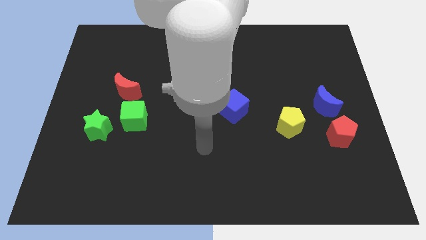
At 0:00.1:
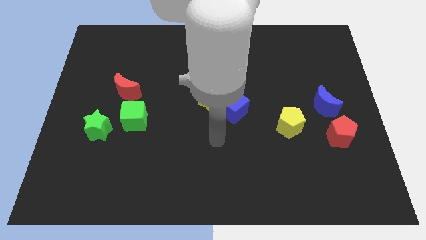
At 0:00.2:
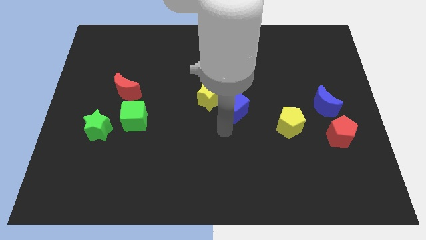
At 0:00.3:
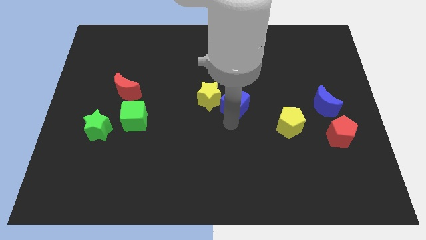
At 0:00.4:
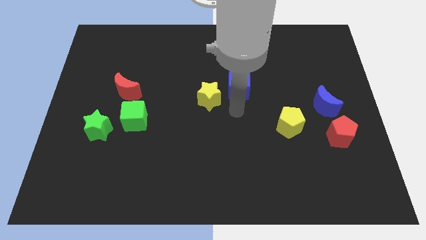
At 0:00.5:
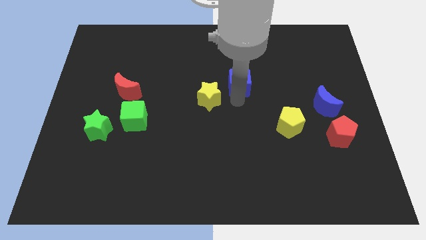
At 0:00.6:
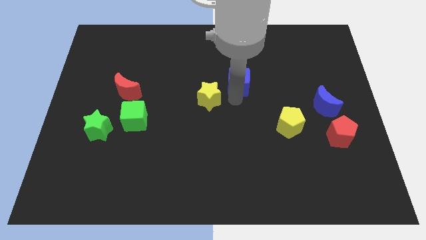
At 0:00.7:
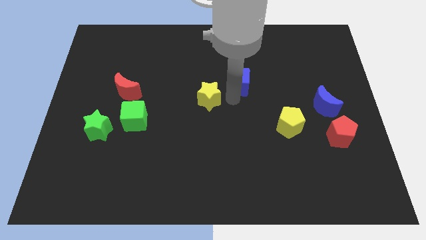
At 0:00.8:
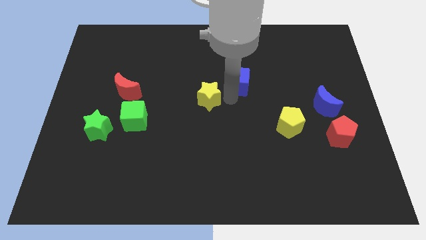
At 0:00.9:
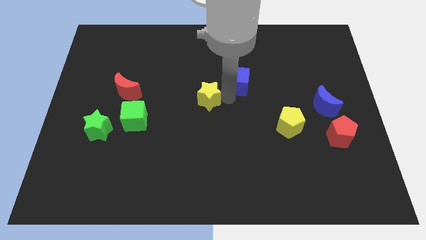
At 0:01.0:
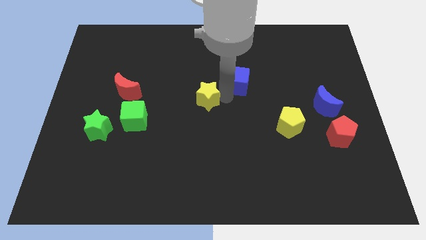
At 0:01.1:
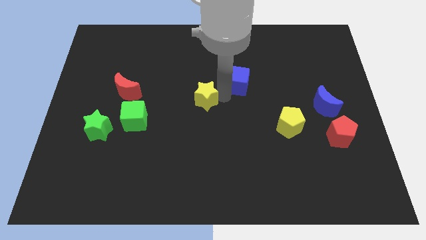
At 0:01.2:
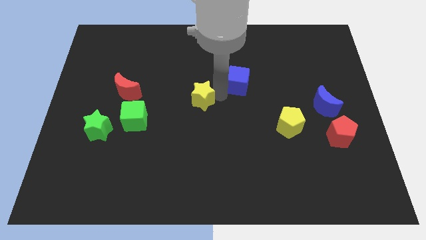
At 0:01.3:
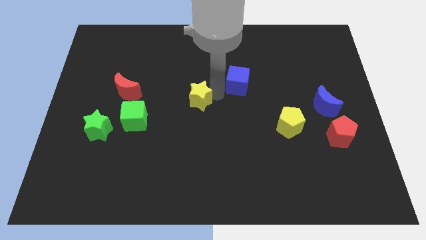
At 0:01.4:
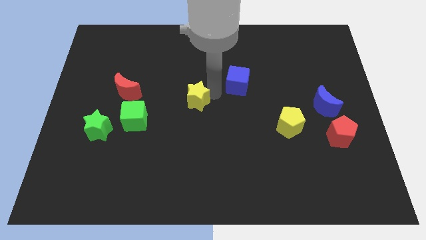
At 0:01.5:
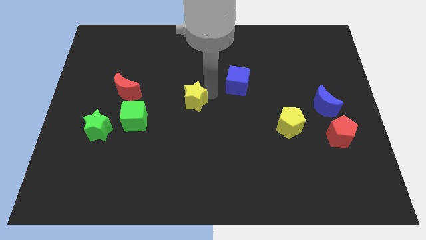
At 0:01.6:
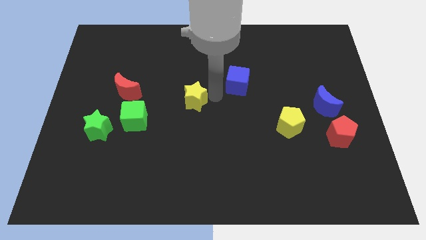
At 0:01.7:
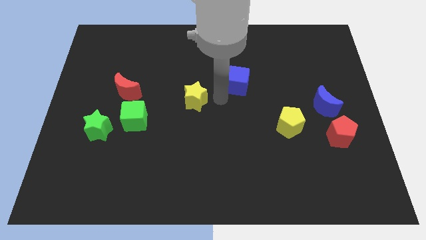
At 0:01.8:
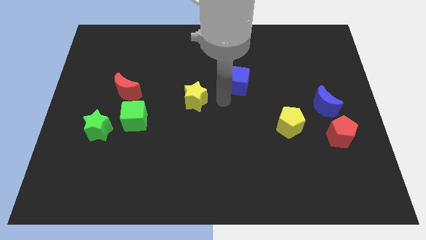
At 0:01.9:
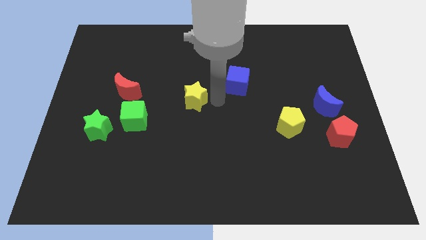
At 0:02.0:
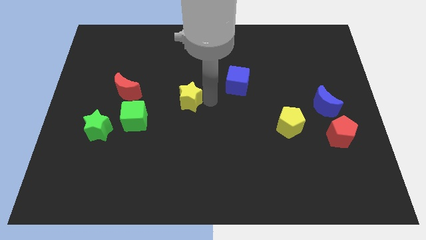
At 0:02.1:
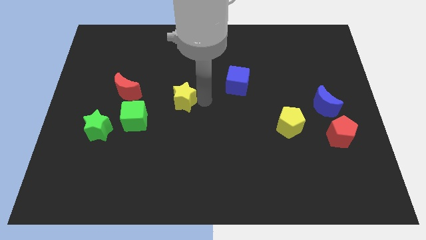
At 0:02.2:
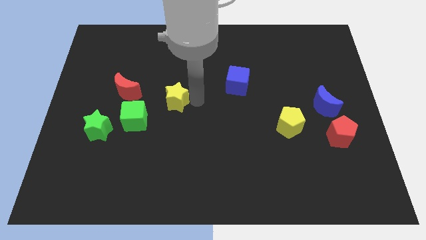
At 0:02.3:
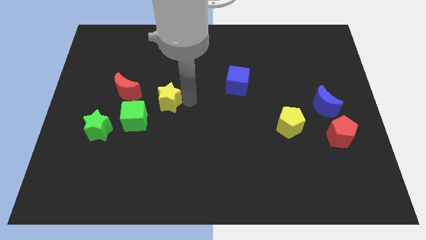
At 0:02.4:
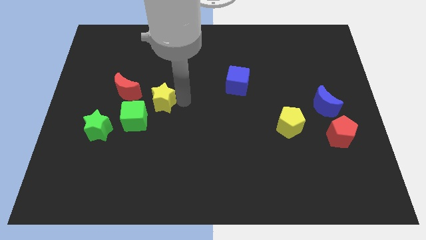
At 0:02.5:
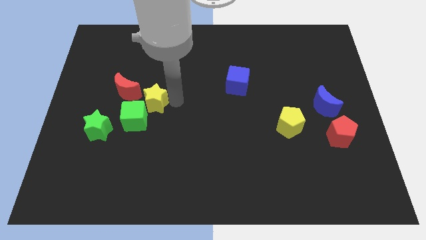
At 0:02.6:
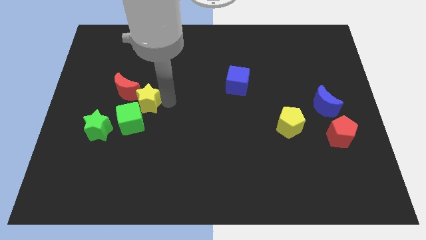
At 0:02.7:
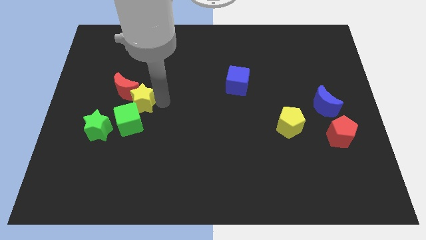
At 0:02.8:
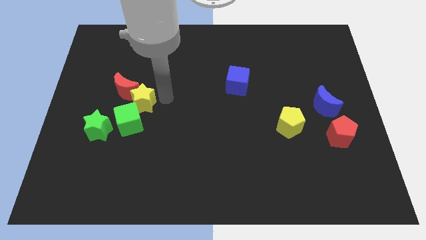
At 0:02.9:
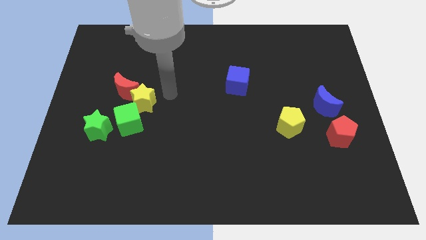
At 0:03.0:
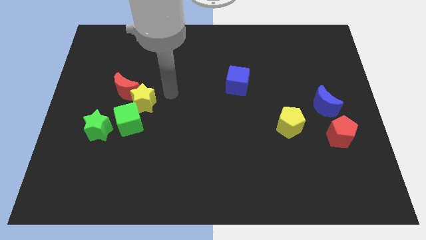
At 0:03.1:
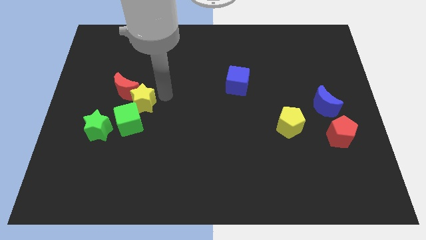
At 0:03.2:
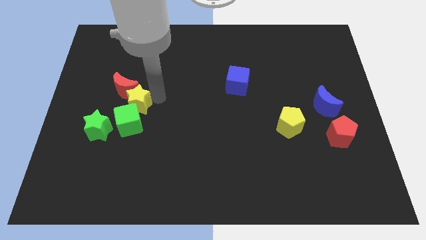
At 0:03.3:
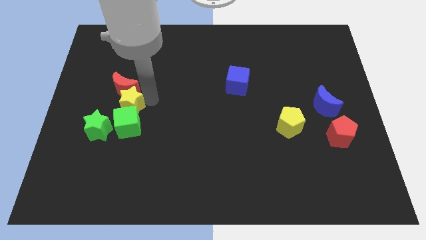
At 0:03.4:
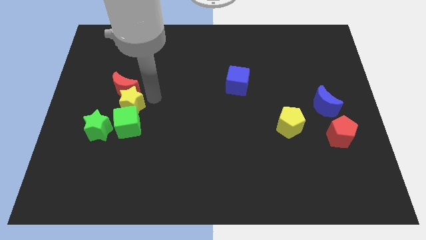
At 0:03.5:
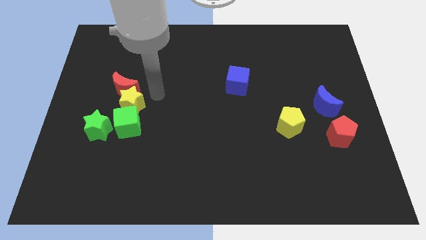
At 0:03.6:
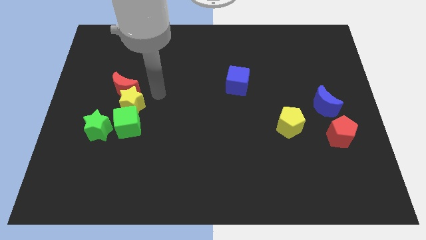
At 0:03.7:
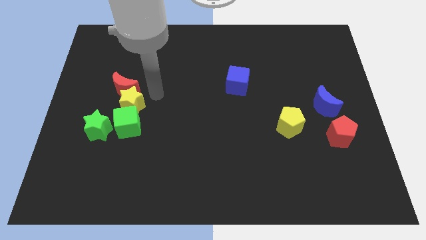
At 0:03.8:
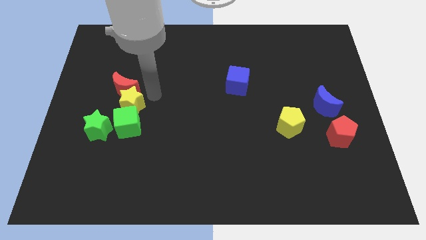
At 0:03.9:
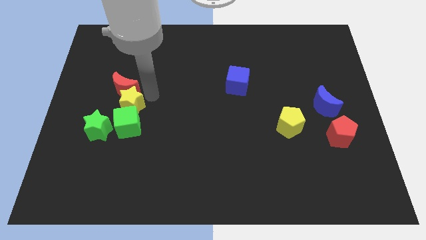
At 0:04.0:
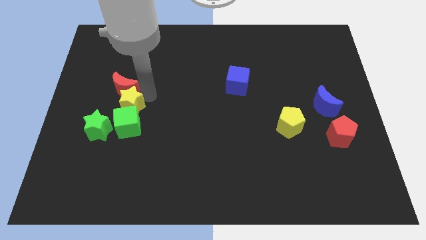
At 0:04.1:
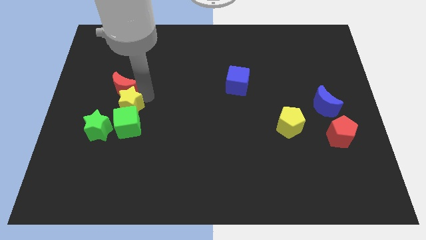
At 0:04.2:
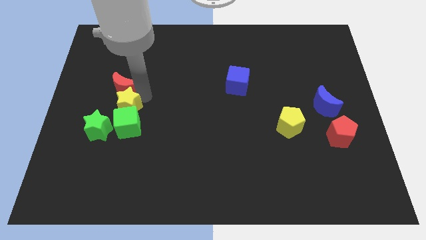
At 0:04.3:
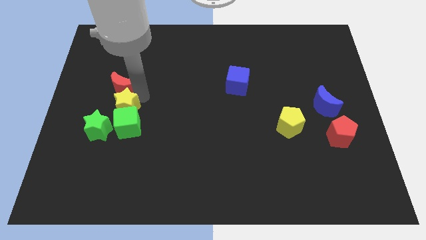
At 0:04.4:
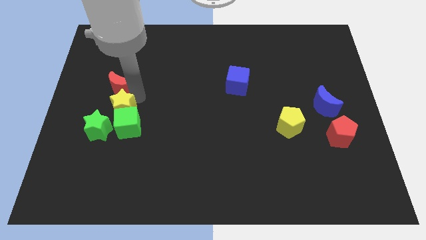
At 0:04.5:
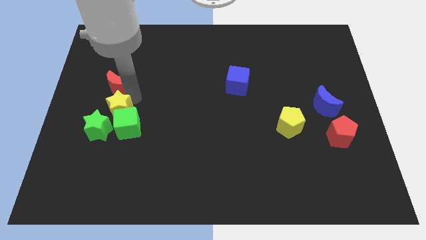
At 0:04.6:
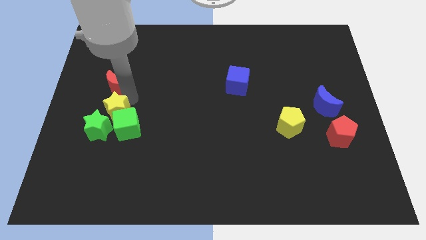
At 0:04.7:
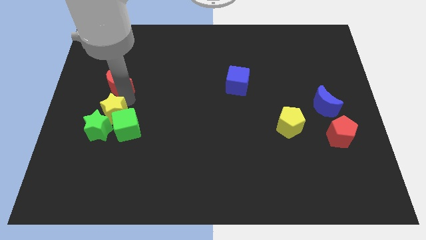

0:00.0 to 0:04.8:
push the yellow star to the green star

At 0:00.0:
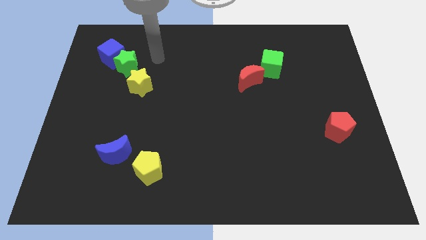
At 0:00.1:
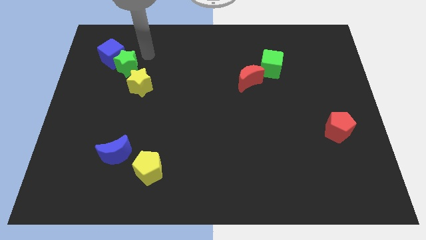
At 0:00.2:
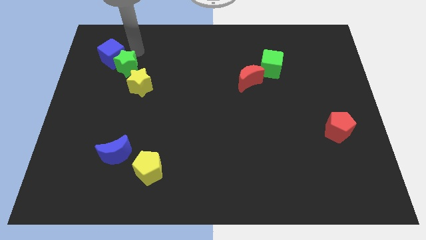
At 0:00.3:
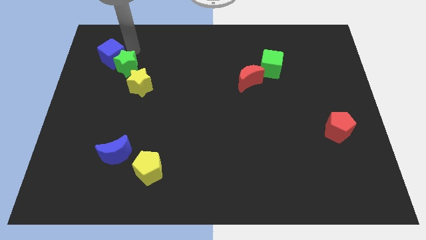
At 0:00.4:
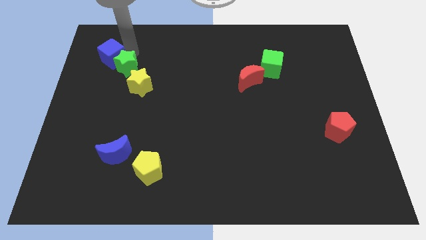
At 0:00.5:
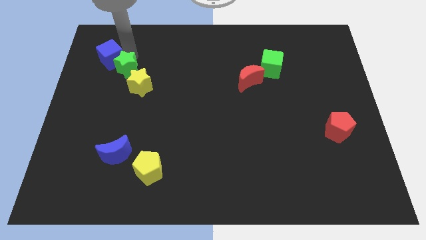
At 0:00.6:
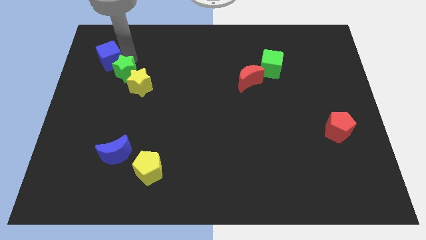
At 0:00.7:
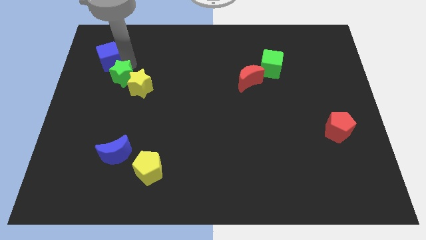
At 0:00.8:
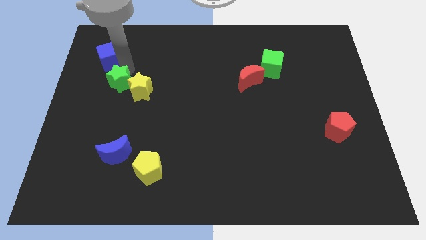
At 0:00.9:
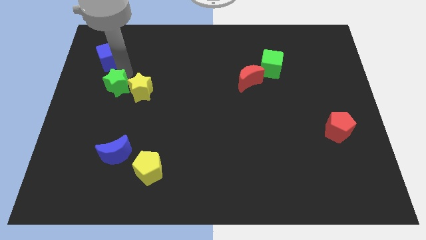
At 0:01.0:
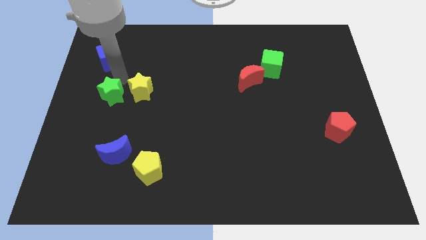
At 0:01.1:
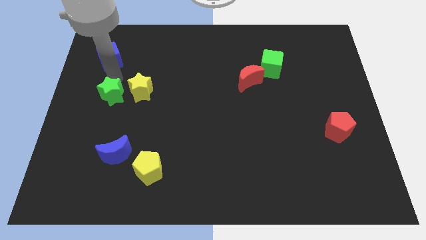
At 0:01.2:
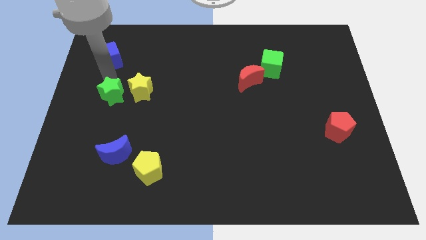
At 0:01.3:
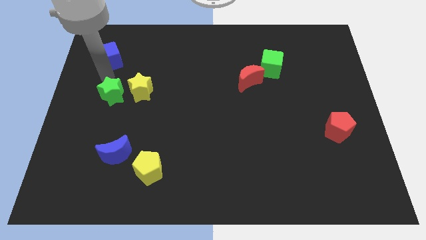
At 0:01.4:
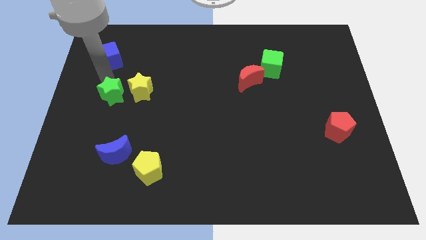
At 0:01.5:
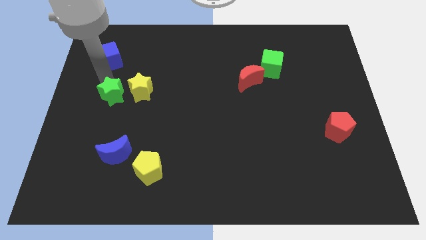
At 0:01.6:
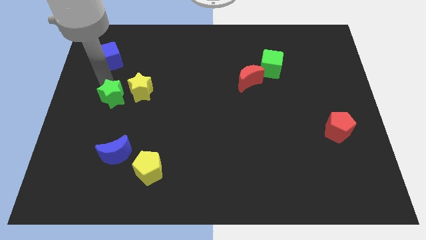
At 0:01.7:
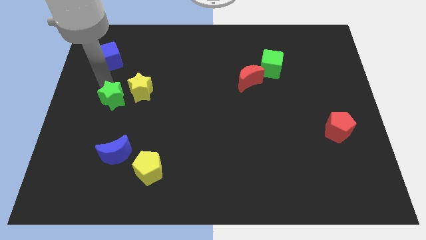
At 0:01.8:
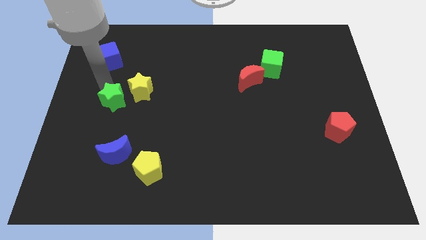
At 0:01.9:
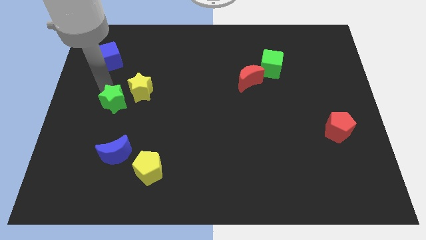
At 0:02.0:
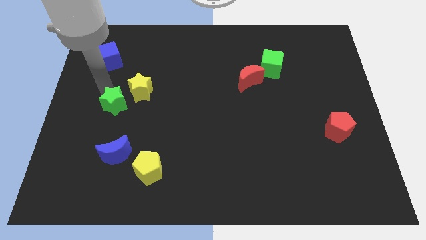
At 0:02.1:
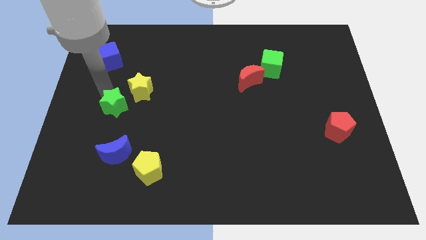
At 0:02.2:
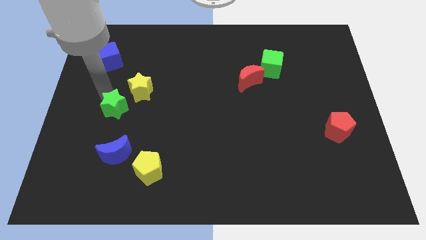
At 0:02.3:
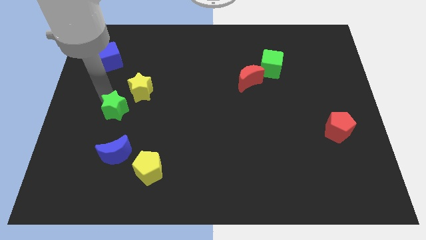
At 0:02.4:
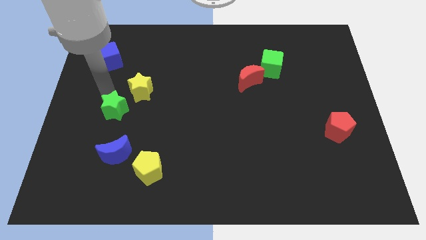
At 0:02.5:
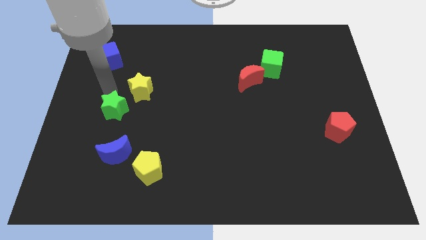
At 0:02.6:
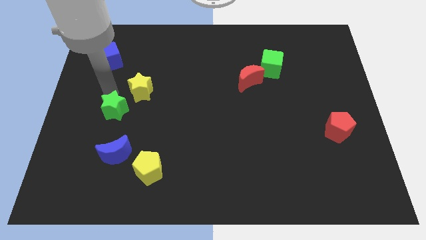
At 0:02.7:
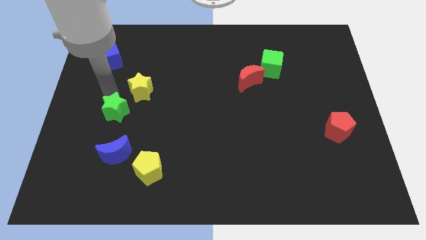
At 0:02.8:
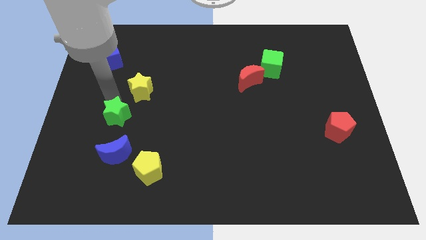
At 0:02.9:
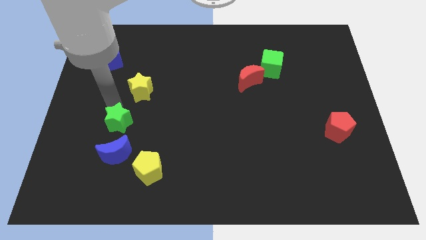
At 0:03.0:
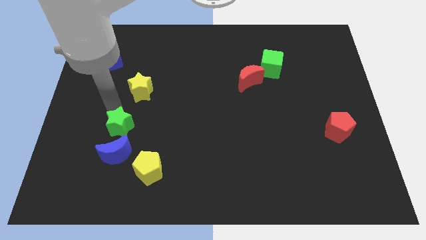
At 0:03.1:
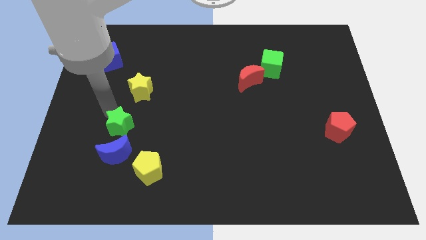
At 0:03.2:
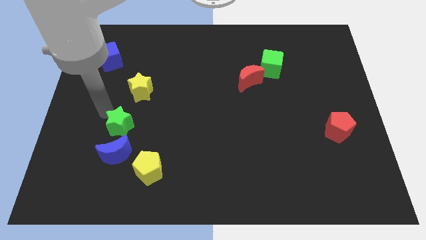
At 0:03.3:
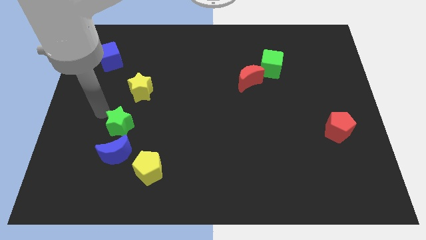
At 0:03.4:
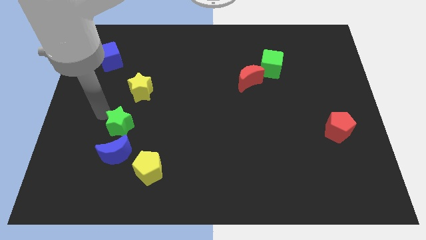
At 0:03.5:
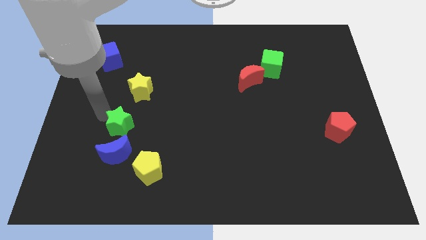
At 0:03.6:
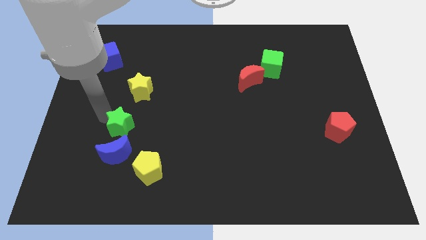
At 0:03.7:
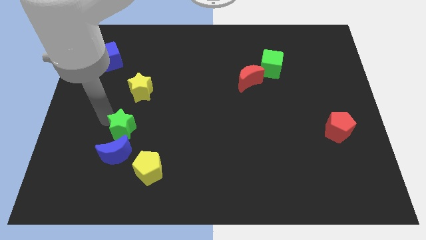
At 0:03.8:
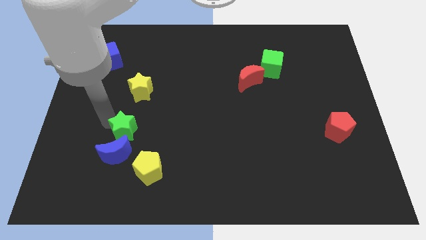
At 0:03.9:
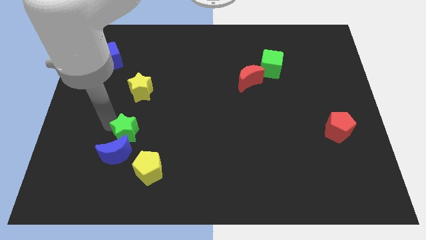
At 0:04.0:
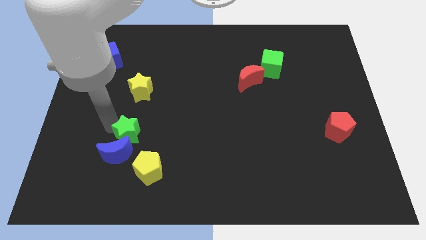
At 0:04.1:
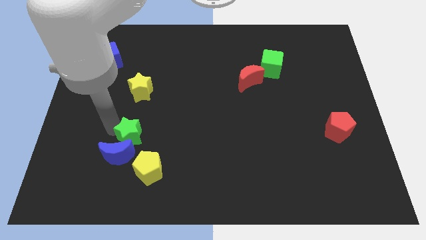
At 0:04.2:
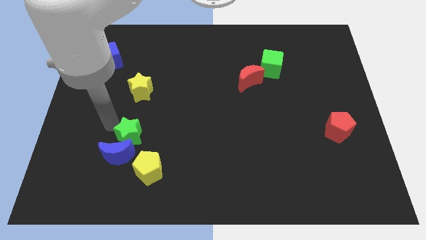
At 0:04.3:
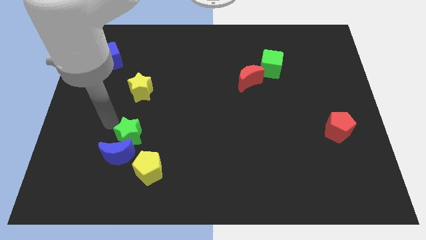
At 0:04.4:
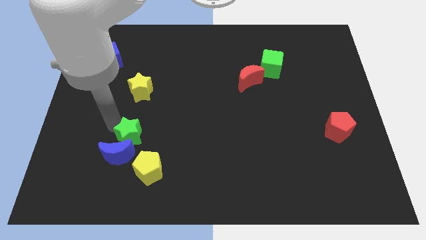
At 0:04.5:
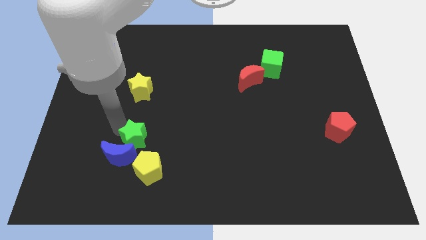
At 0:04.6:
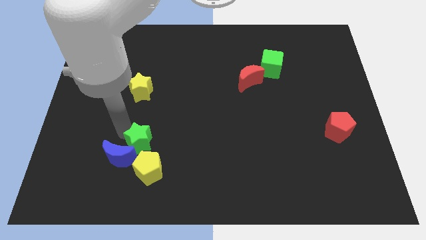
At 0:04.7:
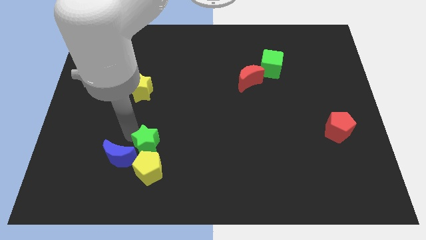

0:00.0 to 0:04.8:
move the green star to the yellow pentagon
